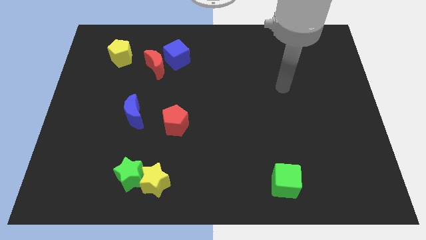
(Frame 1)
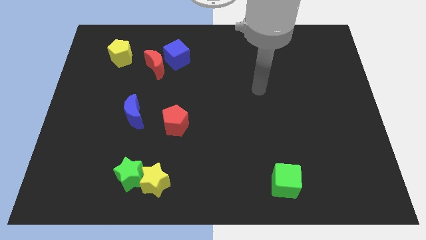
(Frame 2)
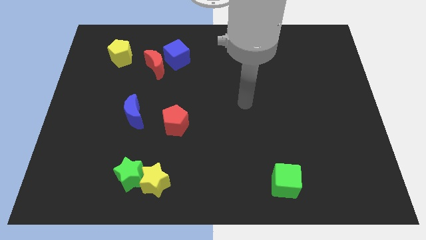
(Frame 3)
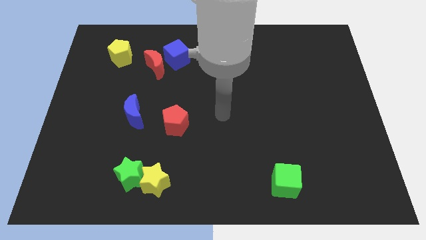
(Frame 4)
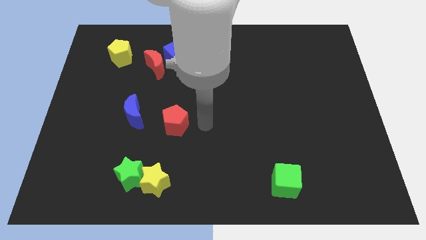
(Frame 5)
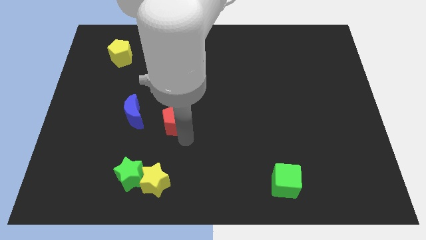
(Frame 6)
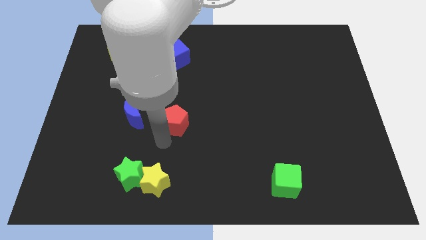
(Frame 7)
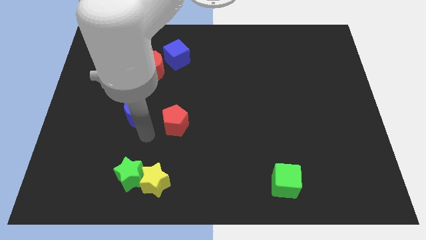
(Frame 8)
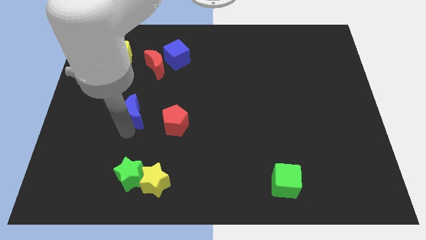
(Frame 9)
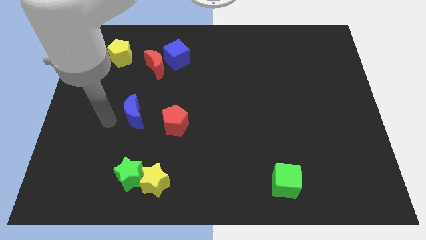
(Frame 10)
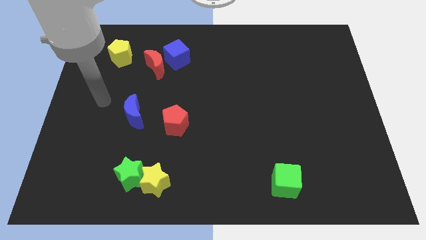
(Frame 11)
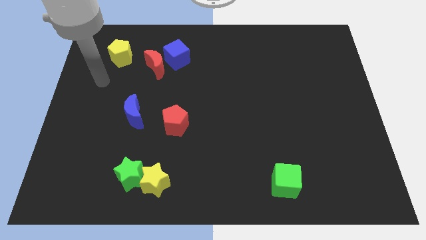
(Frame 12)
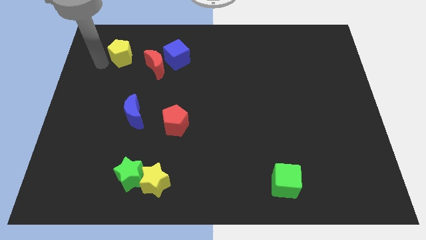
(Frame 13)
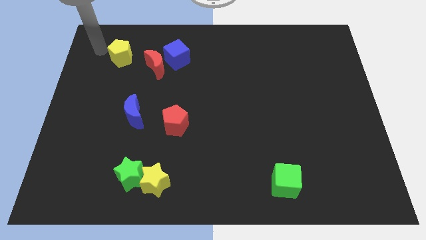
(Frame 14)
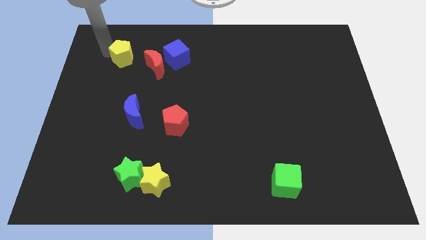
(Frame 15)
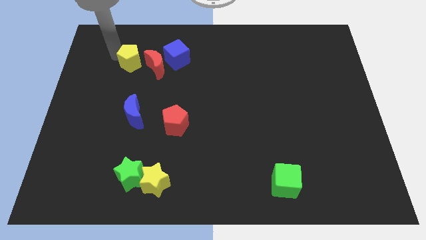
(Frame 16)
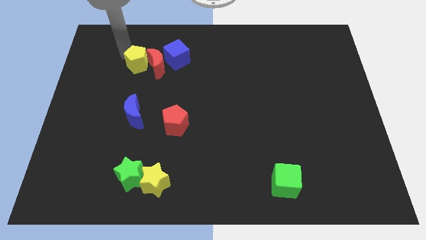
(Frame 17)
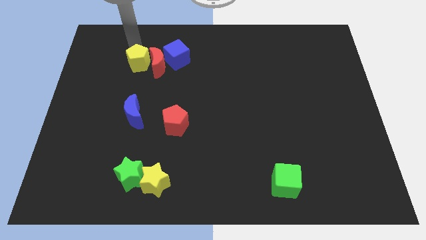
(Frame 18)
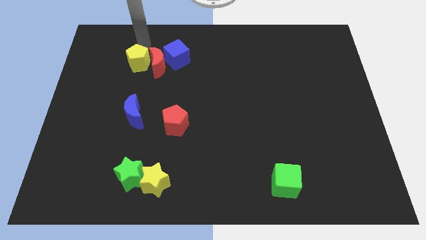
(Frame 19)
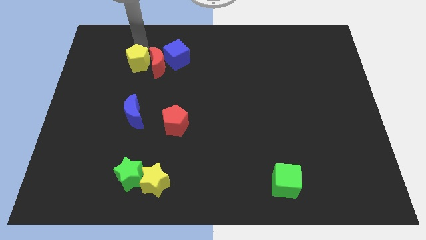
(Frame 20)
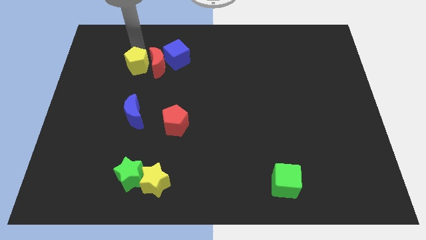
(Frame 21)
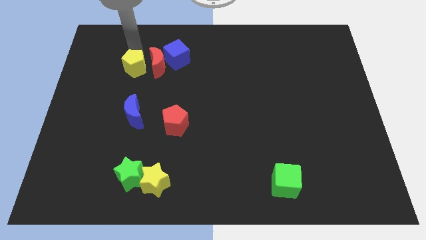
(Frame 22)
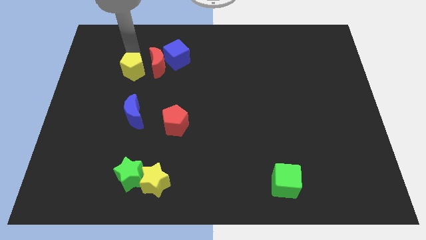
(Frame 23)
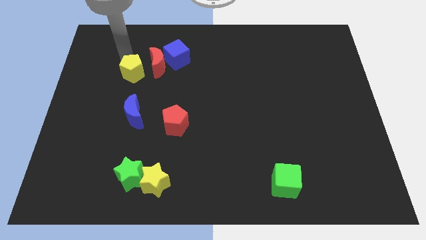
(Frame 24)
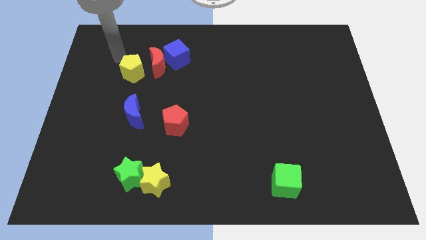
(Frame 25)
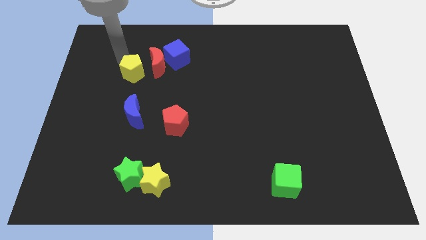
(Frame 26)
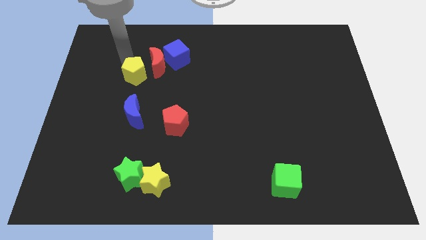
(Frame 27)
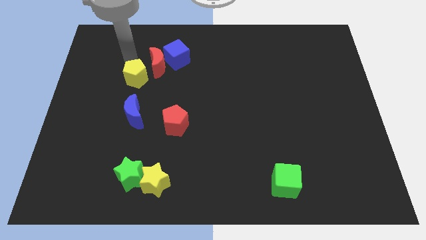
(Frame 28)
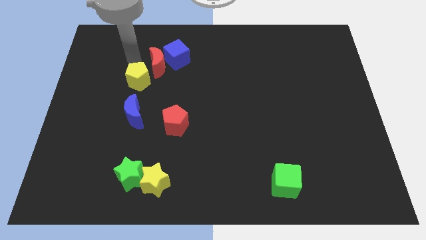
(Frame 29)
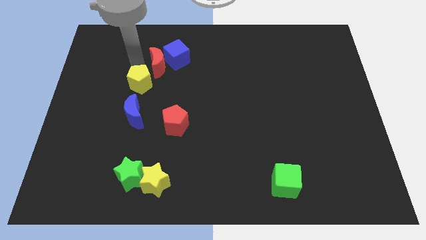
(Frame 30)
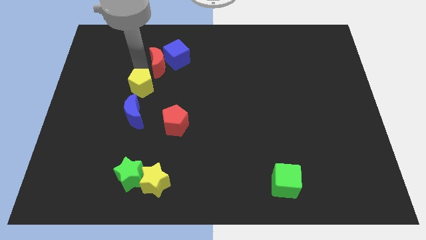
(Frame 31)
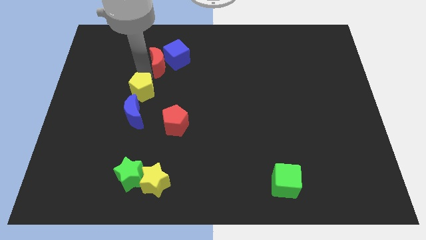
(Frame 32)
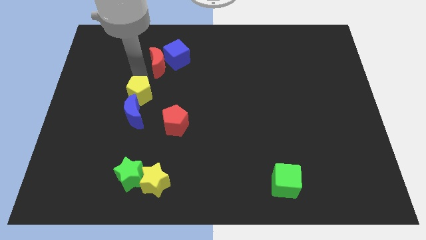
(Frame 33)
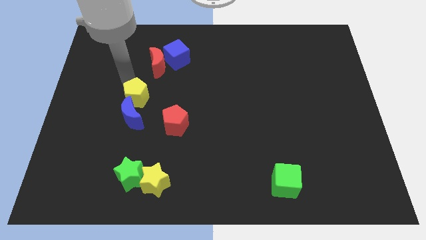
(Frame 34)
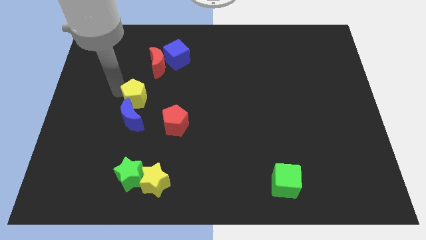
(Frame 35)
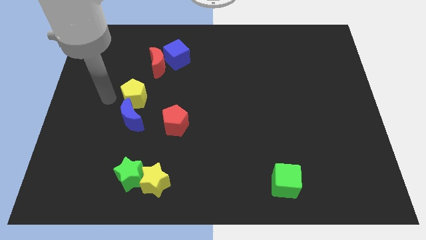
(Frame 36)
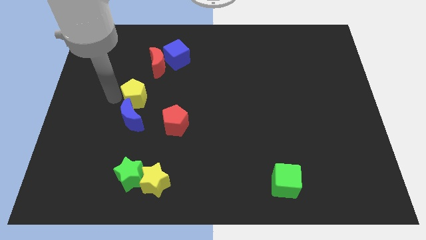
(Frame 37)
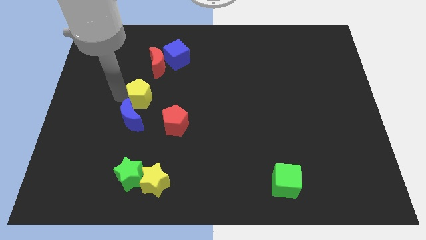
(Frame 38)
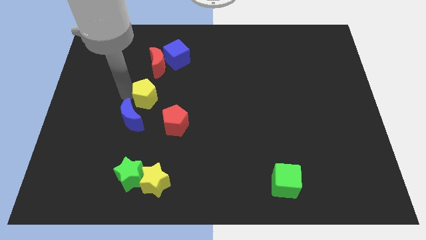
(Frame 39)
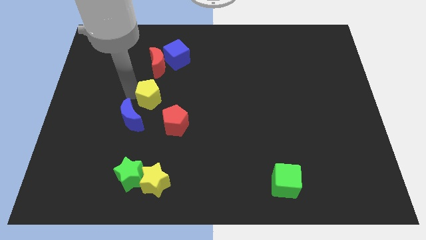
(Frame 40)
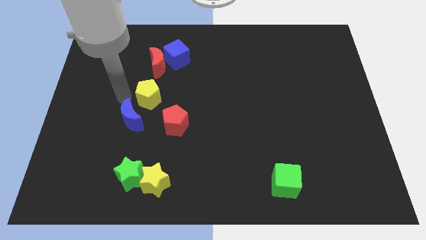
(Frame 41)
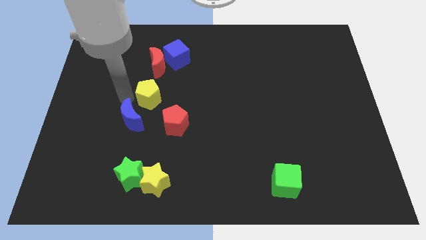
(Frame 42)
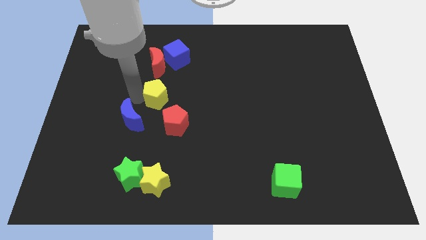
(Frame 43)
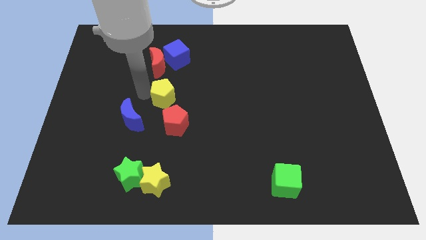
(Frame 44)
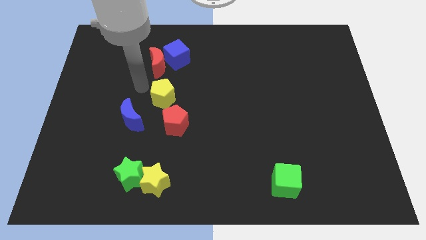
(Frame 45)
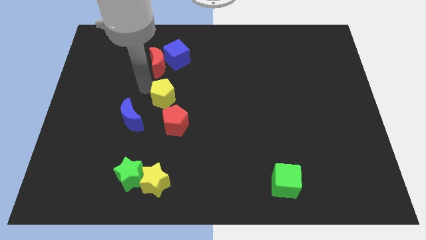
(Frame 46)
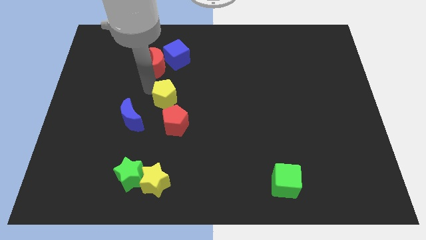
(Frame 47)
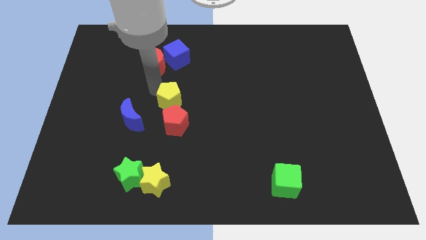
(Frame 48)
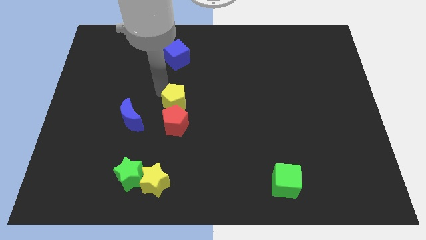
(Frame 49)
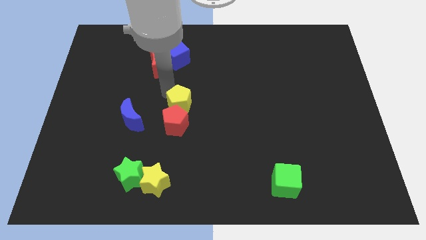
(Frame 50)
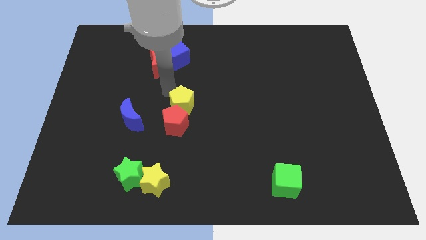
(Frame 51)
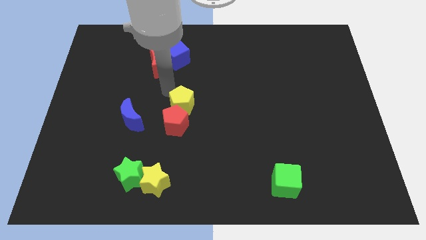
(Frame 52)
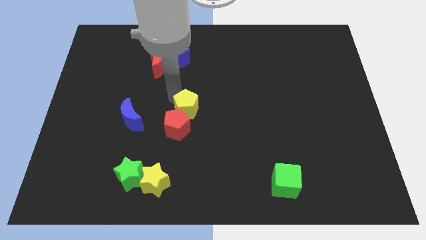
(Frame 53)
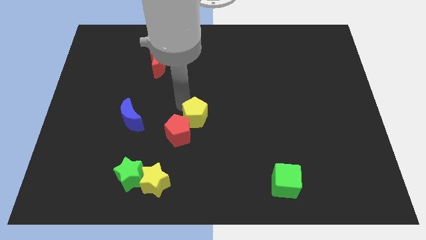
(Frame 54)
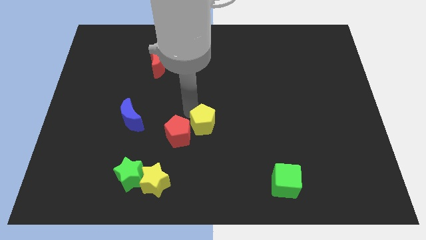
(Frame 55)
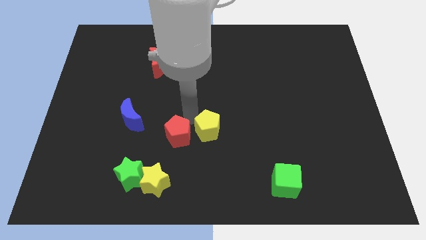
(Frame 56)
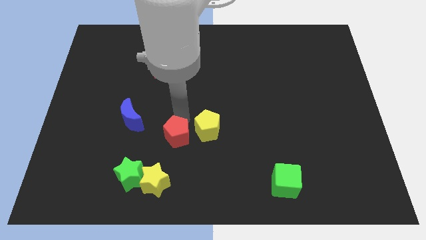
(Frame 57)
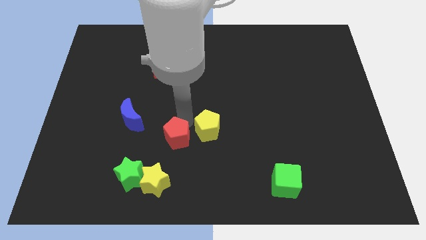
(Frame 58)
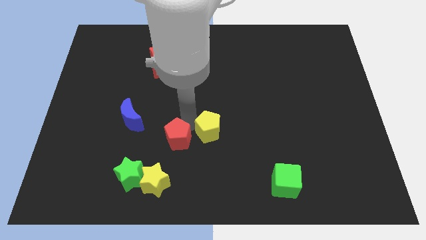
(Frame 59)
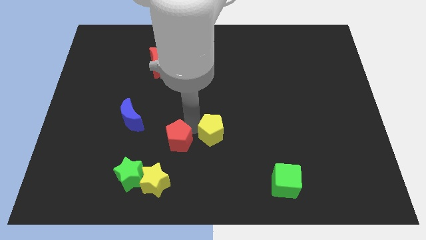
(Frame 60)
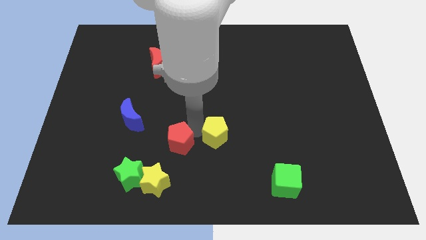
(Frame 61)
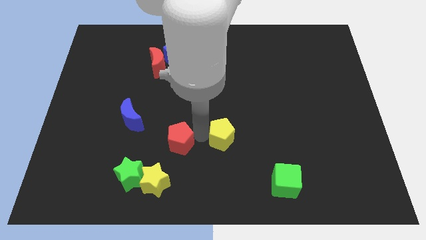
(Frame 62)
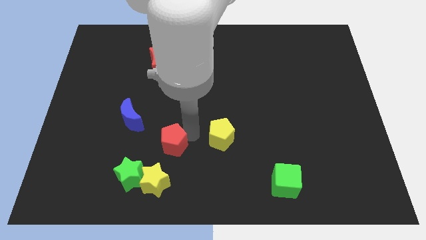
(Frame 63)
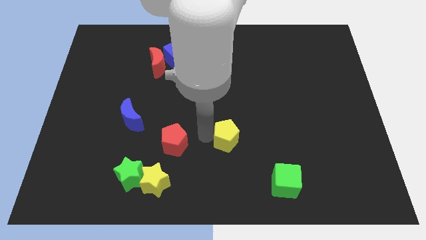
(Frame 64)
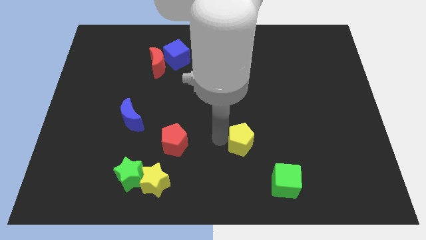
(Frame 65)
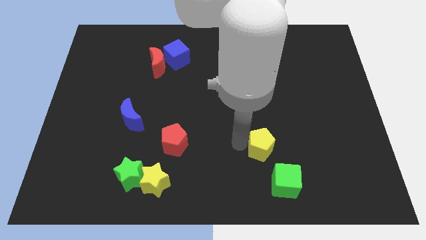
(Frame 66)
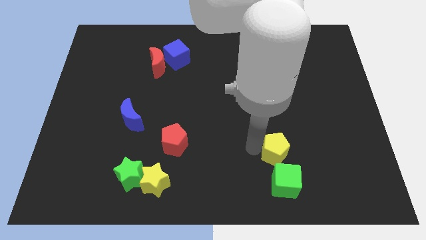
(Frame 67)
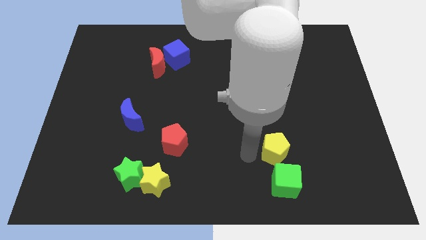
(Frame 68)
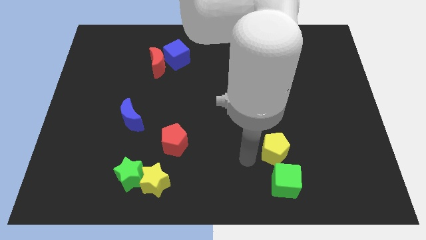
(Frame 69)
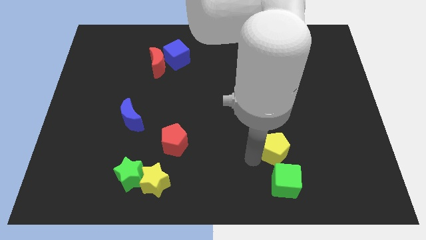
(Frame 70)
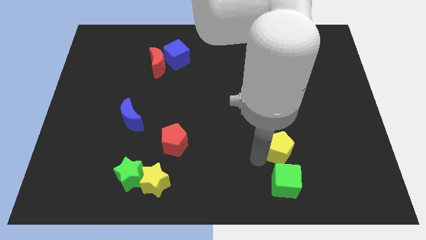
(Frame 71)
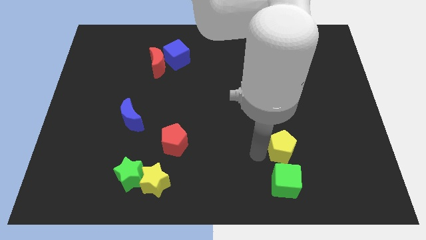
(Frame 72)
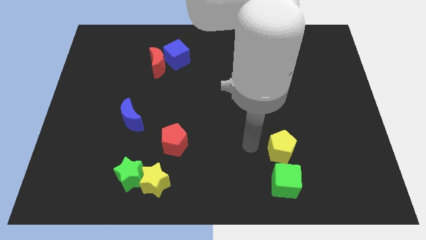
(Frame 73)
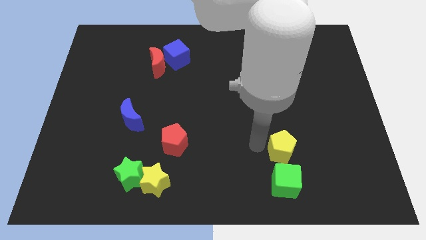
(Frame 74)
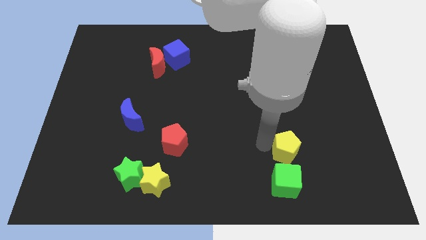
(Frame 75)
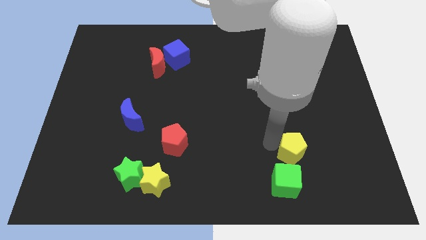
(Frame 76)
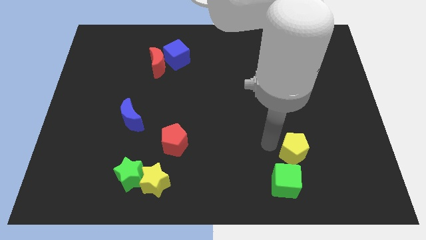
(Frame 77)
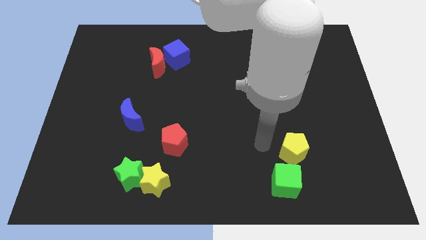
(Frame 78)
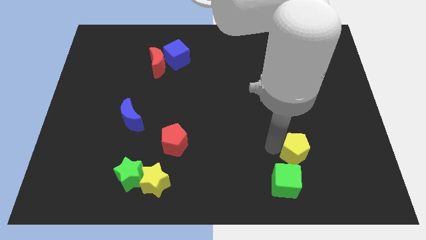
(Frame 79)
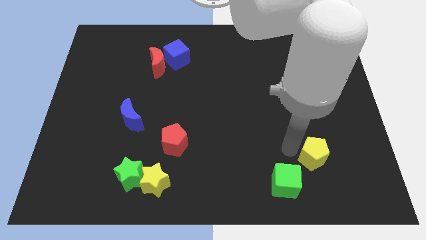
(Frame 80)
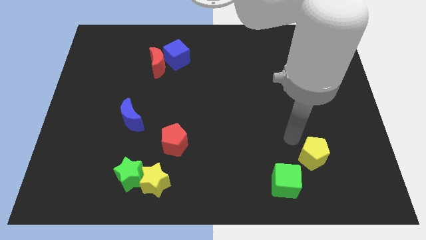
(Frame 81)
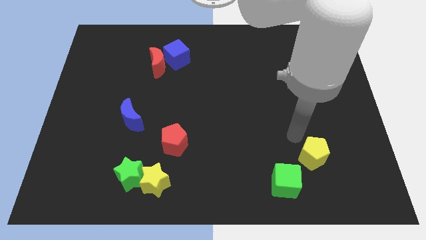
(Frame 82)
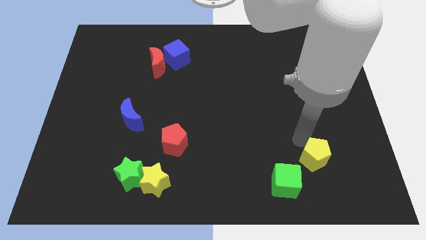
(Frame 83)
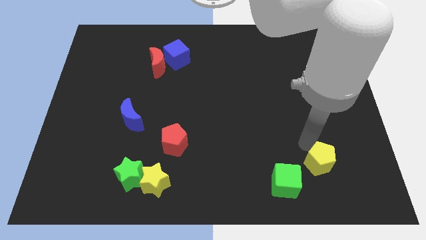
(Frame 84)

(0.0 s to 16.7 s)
move the yellow pentagon to the right side of the green cube
